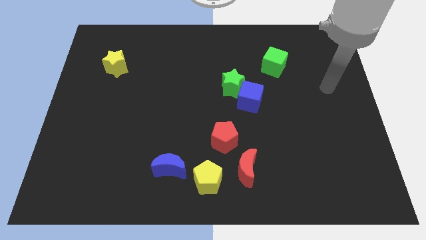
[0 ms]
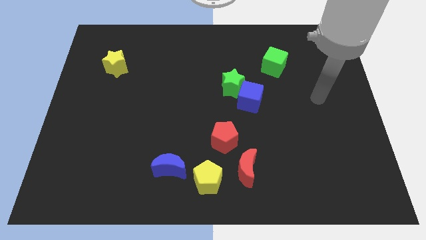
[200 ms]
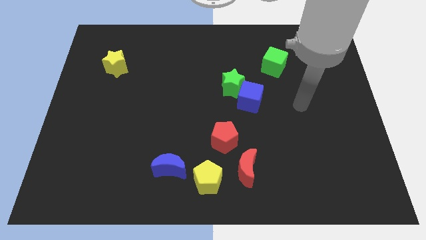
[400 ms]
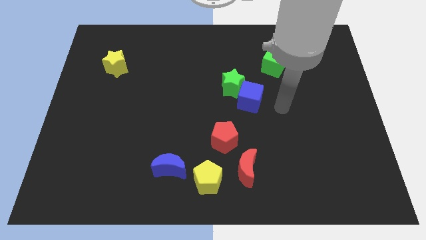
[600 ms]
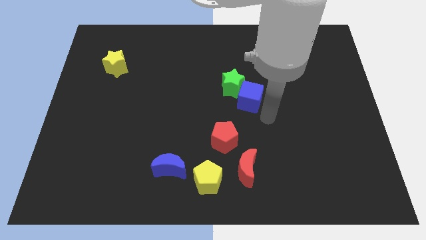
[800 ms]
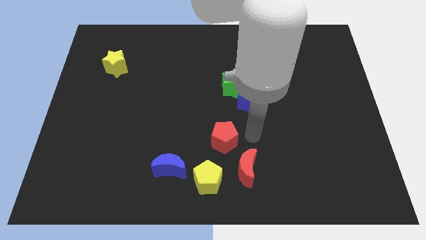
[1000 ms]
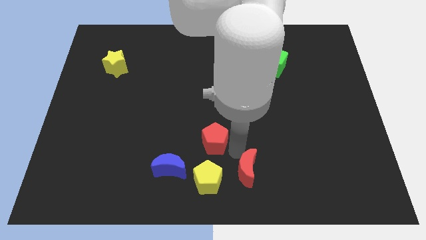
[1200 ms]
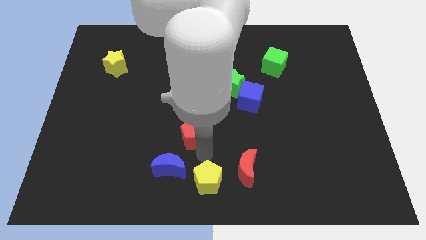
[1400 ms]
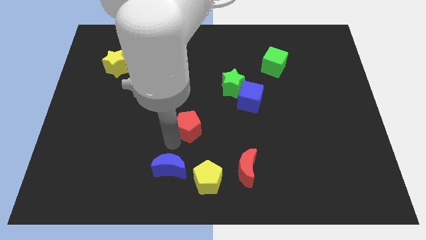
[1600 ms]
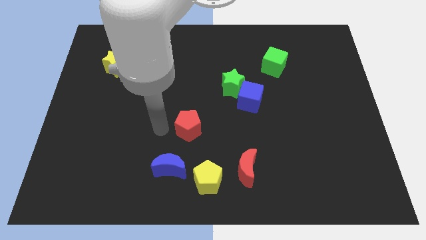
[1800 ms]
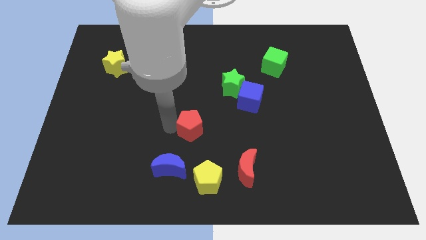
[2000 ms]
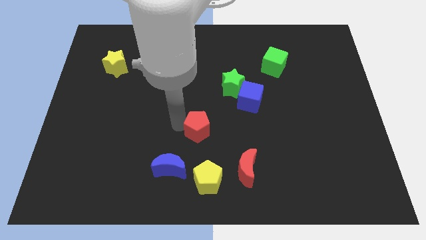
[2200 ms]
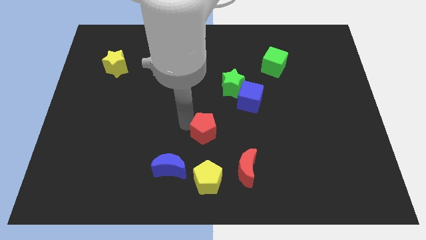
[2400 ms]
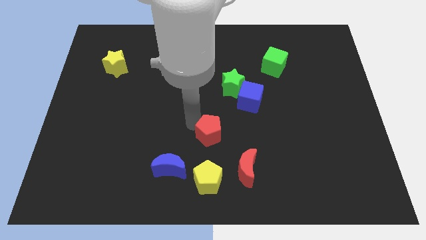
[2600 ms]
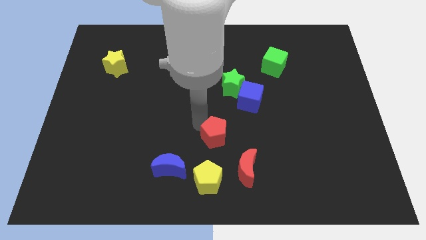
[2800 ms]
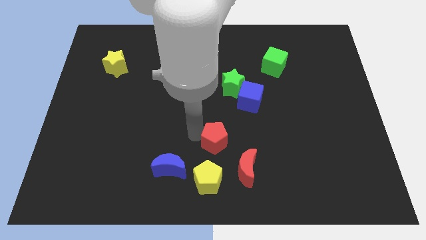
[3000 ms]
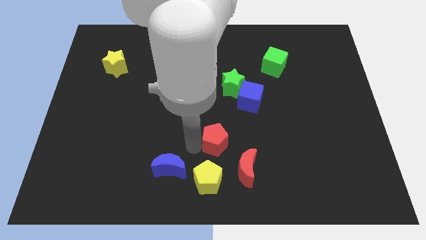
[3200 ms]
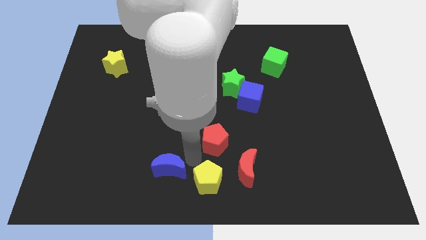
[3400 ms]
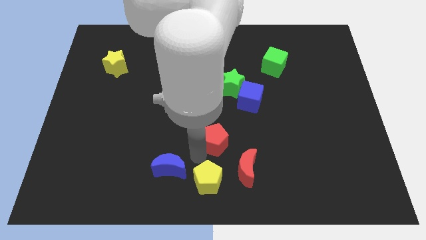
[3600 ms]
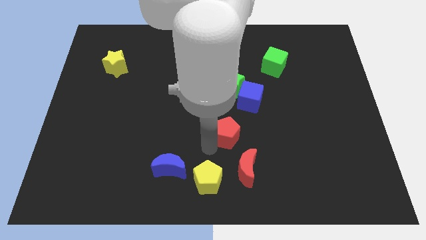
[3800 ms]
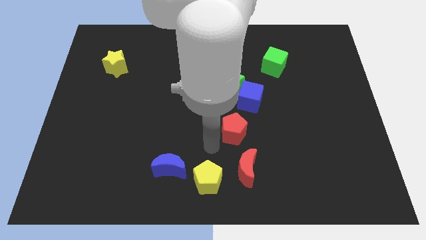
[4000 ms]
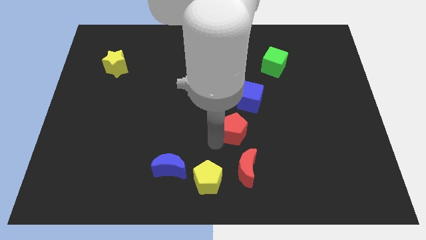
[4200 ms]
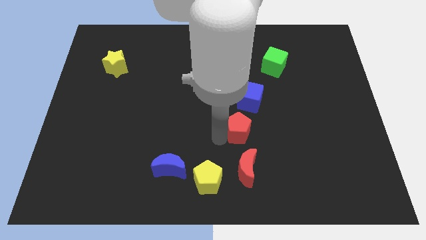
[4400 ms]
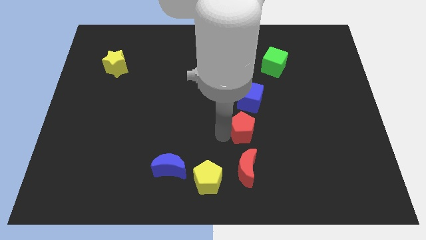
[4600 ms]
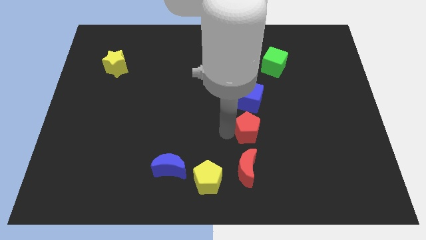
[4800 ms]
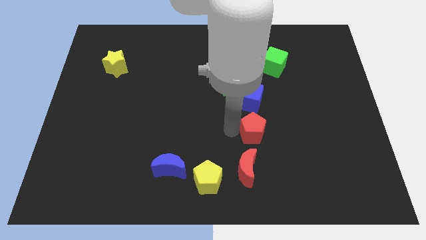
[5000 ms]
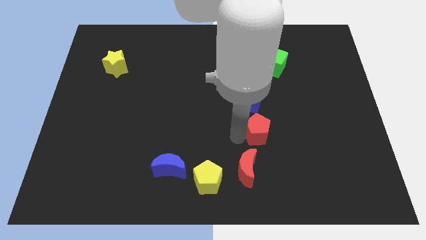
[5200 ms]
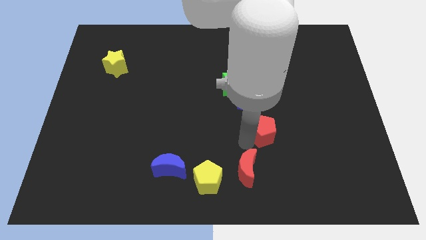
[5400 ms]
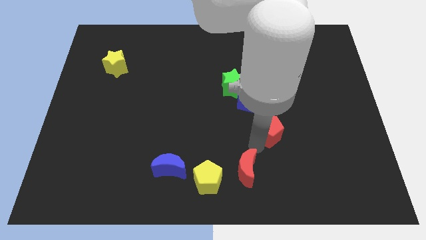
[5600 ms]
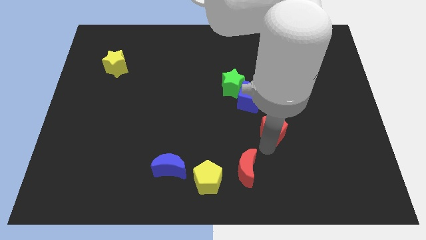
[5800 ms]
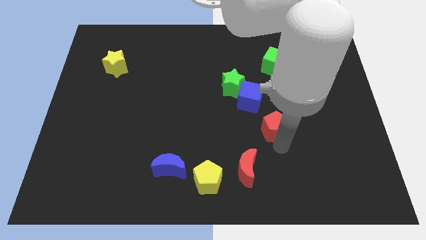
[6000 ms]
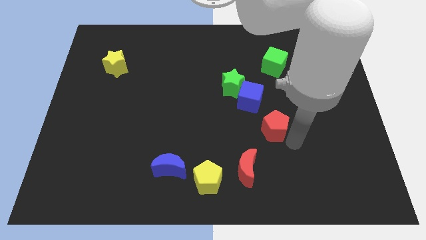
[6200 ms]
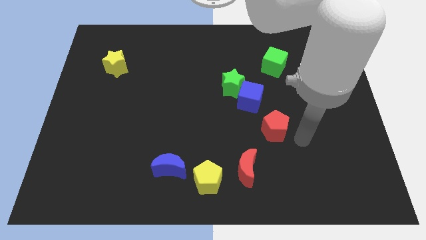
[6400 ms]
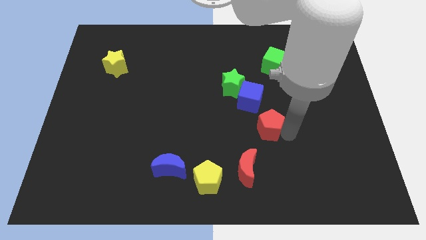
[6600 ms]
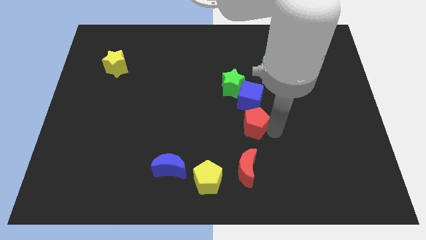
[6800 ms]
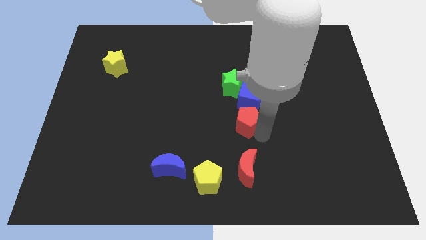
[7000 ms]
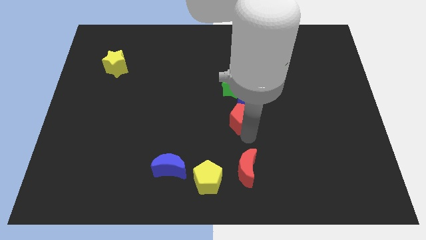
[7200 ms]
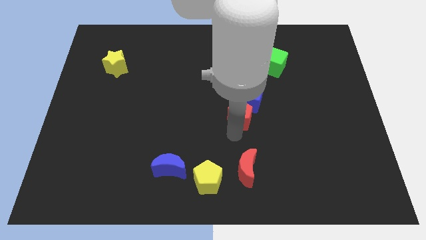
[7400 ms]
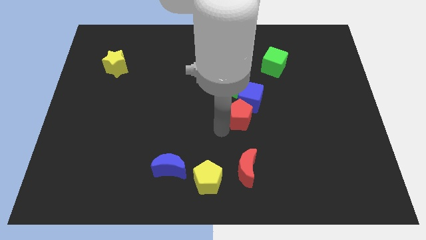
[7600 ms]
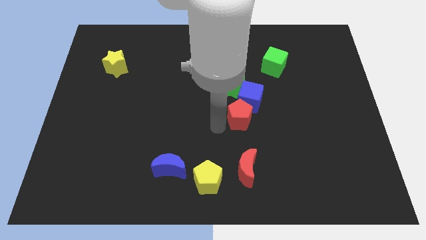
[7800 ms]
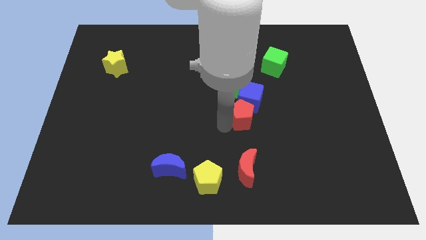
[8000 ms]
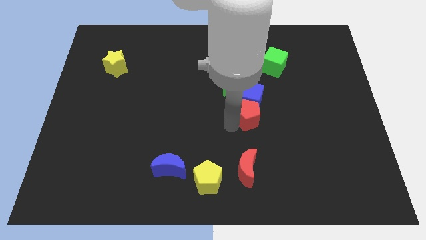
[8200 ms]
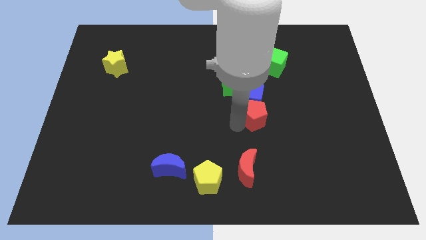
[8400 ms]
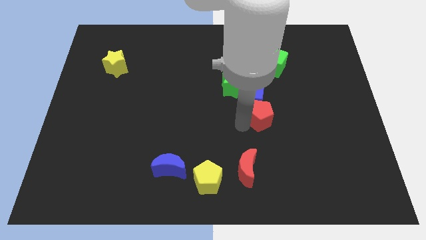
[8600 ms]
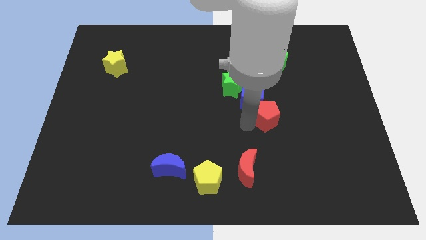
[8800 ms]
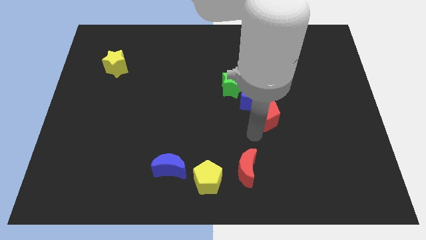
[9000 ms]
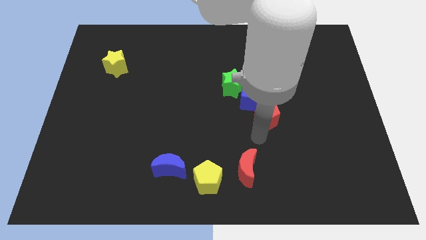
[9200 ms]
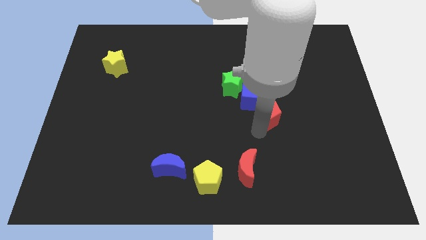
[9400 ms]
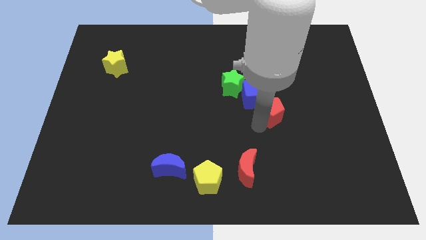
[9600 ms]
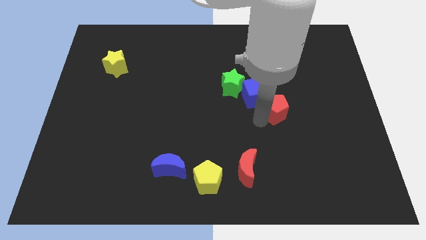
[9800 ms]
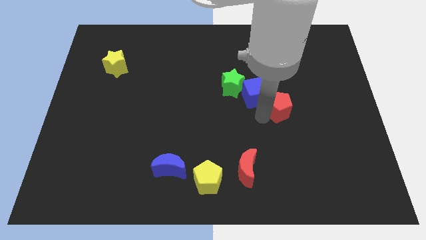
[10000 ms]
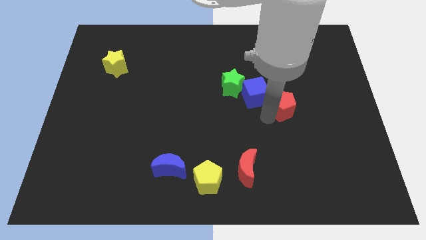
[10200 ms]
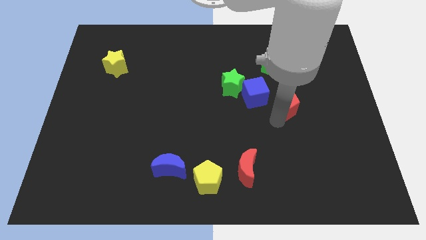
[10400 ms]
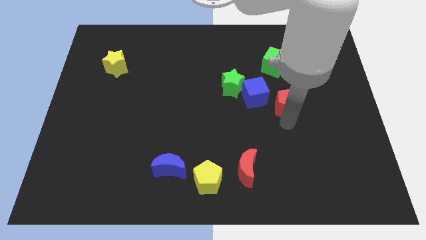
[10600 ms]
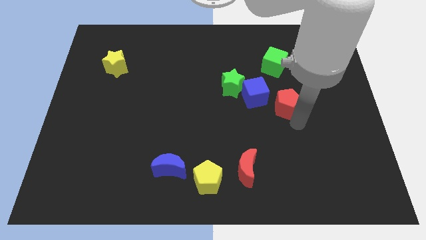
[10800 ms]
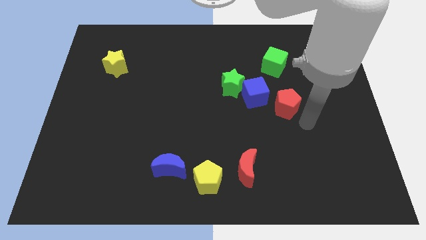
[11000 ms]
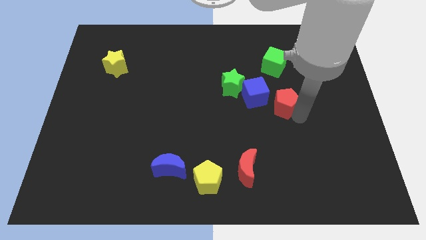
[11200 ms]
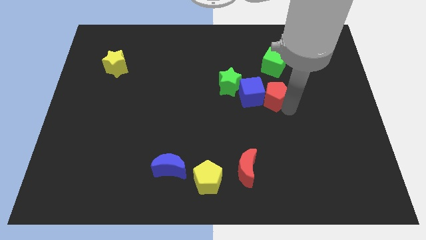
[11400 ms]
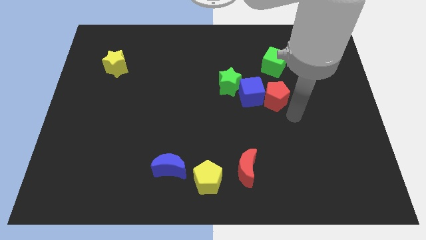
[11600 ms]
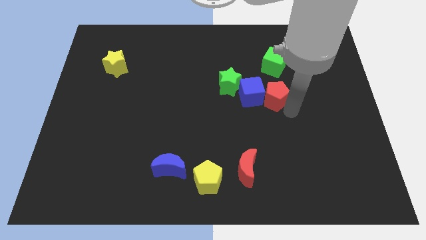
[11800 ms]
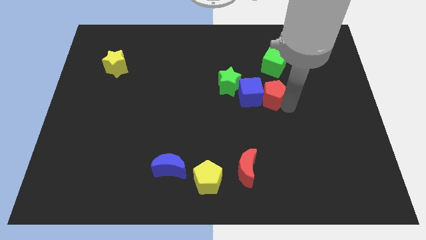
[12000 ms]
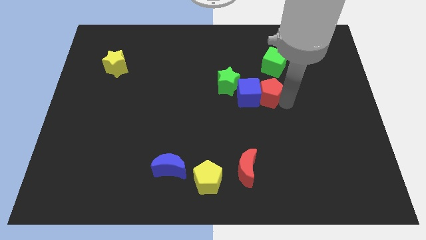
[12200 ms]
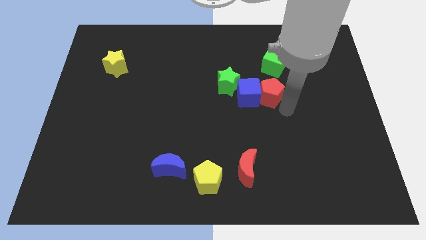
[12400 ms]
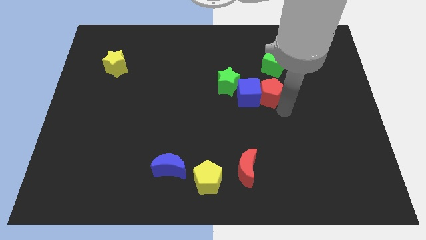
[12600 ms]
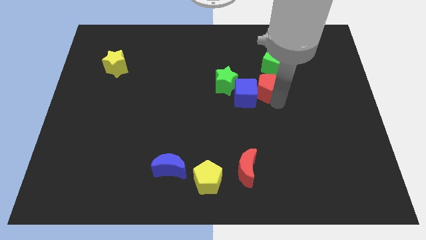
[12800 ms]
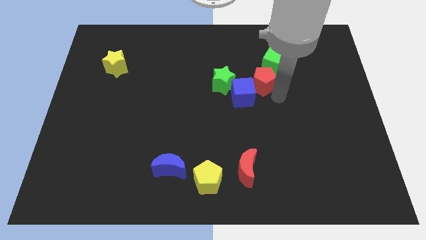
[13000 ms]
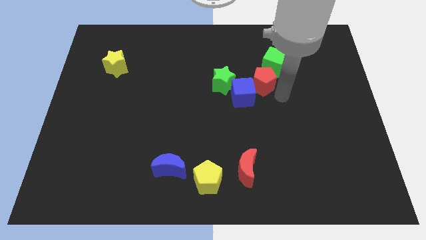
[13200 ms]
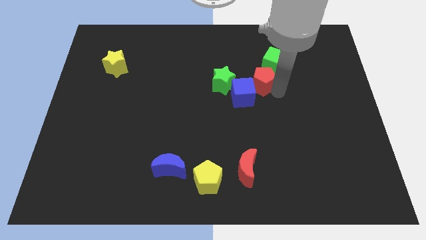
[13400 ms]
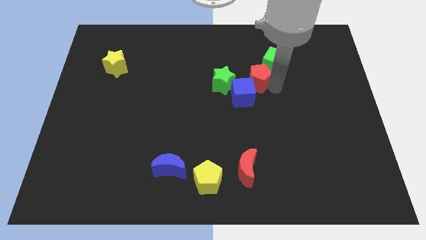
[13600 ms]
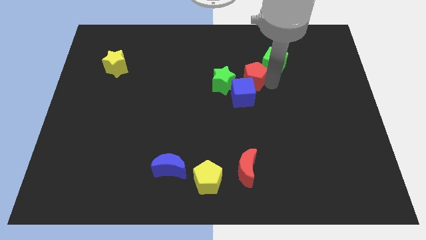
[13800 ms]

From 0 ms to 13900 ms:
put the red pentagon to the top right side of the green star
